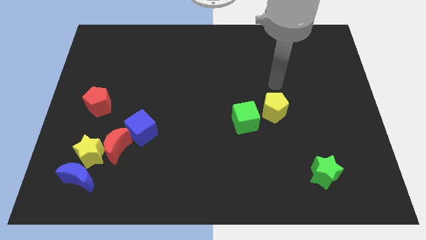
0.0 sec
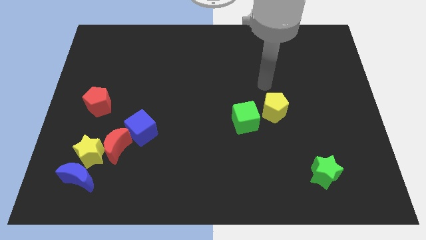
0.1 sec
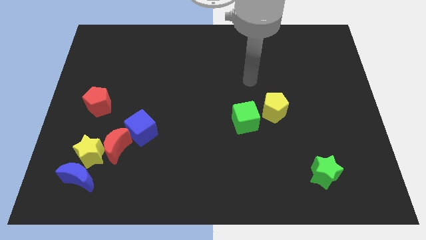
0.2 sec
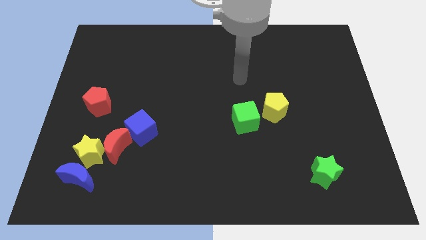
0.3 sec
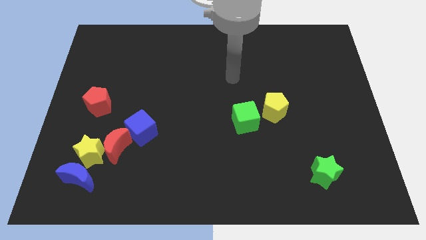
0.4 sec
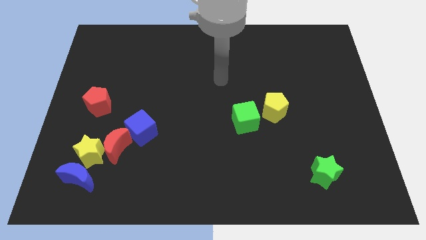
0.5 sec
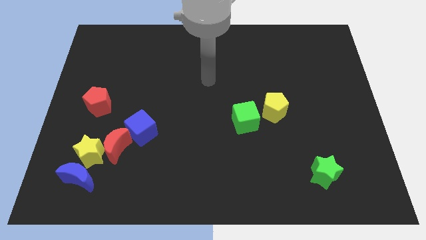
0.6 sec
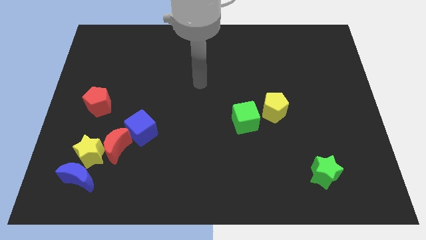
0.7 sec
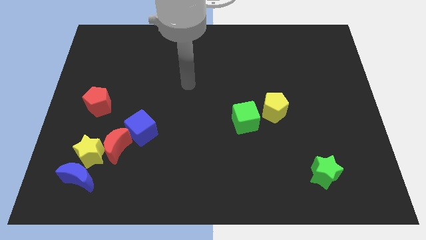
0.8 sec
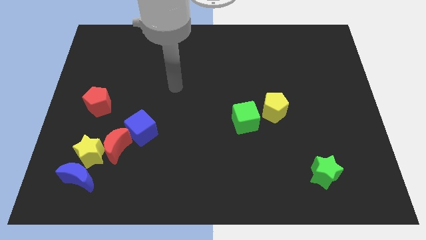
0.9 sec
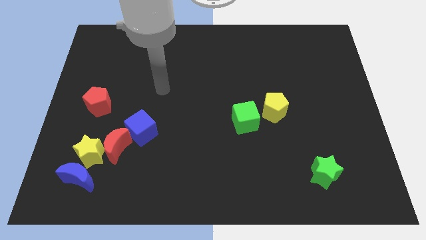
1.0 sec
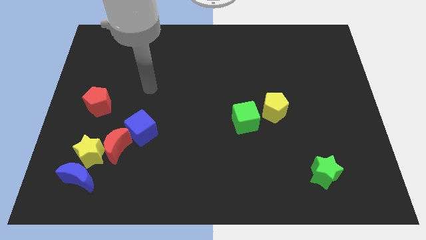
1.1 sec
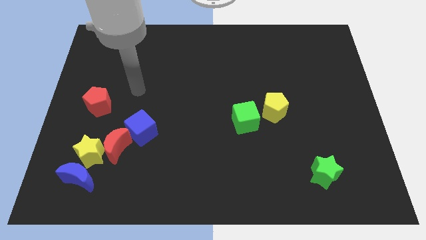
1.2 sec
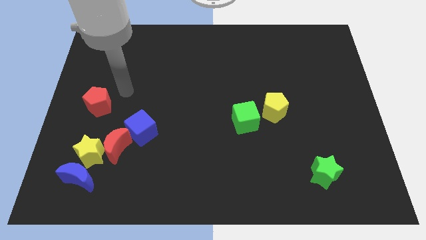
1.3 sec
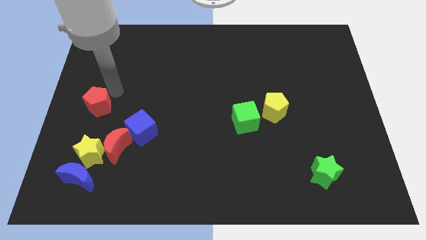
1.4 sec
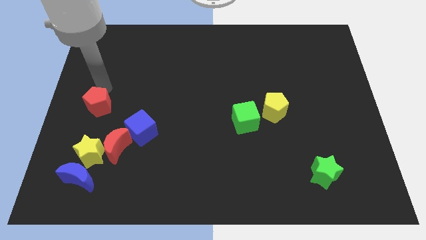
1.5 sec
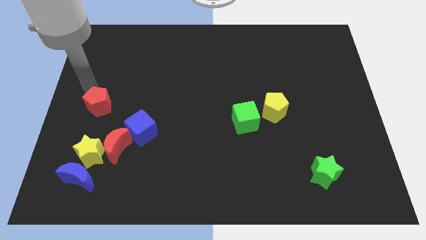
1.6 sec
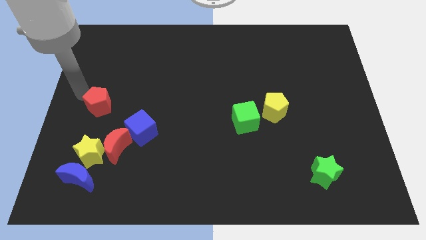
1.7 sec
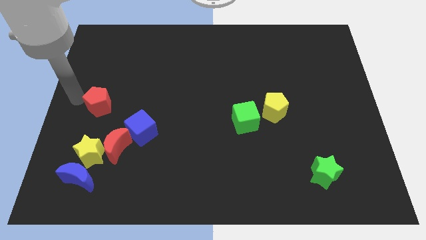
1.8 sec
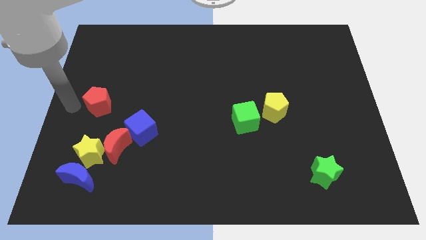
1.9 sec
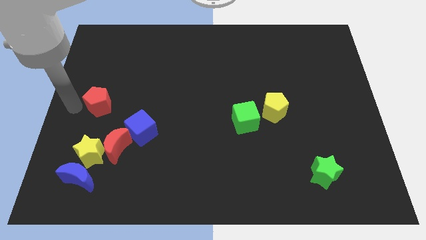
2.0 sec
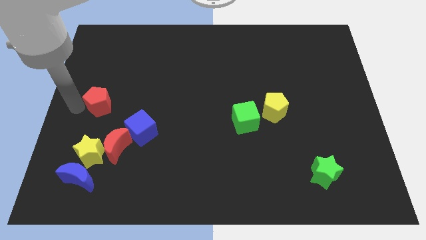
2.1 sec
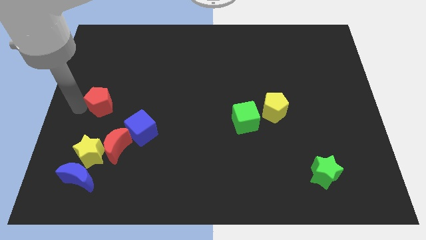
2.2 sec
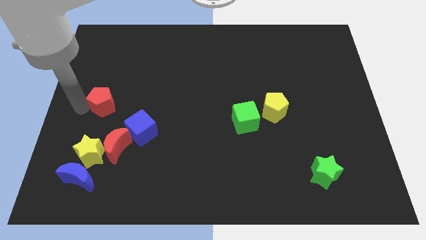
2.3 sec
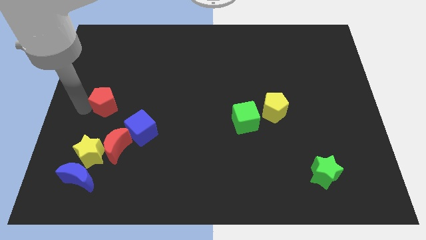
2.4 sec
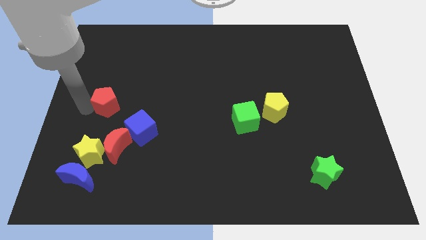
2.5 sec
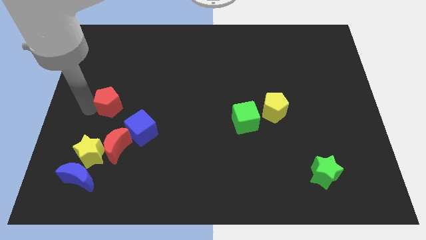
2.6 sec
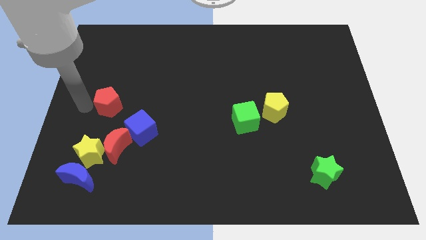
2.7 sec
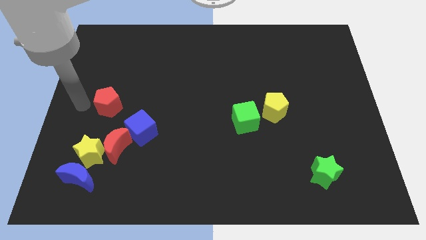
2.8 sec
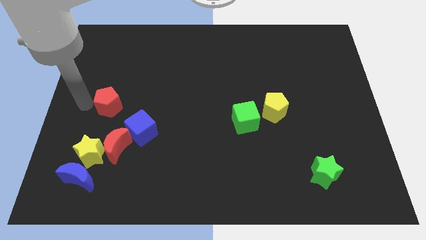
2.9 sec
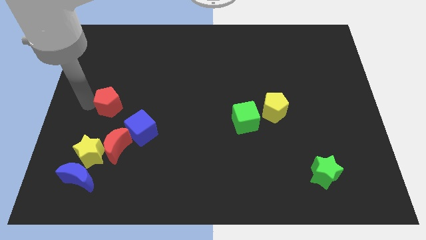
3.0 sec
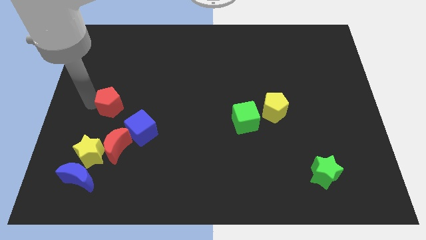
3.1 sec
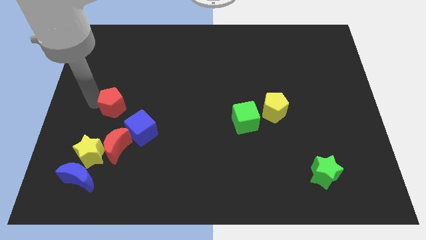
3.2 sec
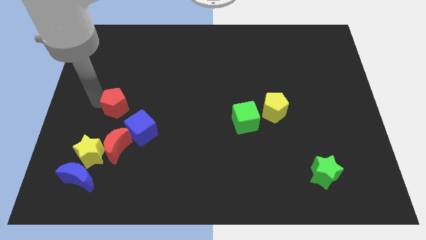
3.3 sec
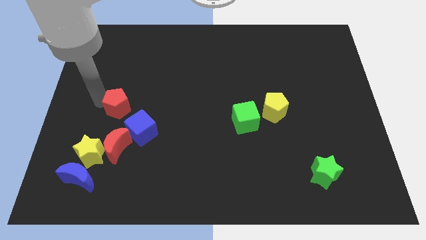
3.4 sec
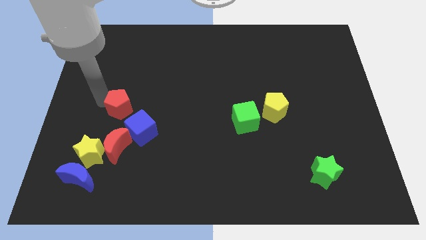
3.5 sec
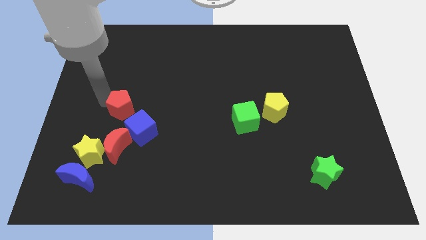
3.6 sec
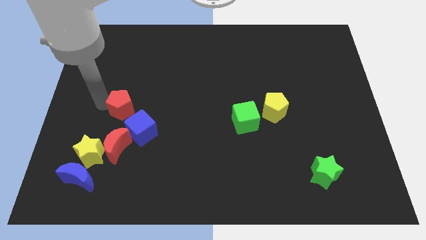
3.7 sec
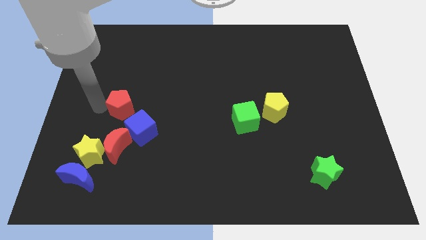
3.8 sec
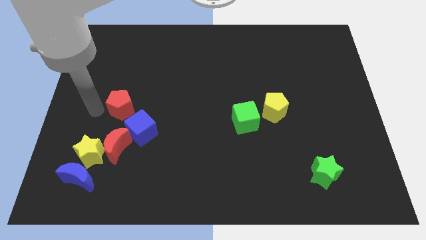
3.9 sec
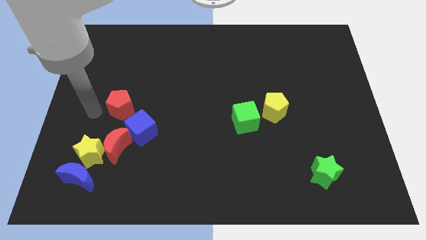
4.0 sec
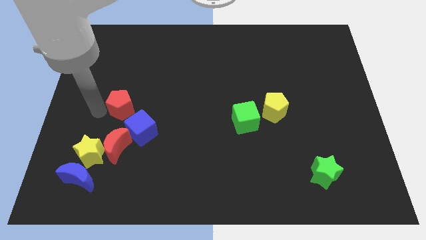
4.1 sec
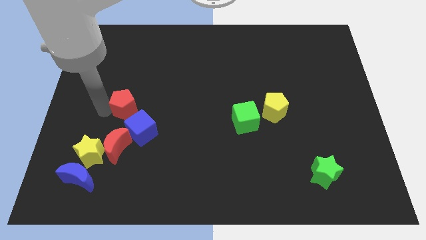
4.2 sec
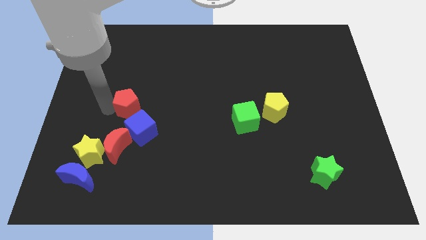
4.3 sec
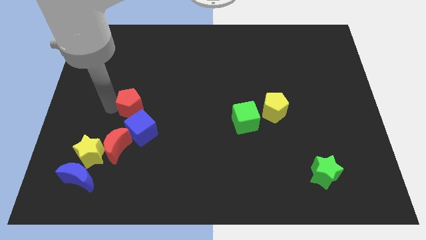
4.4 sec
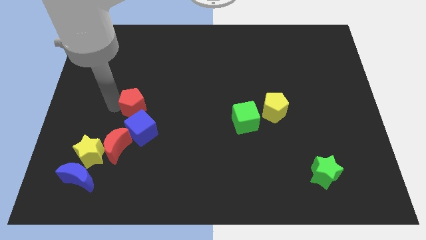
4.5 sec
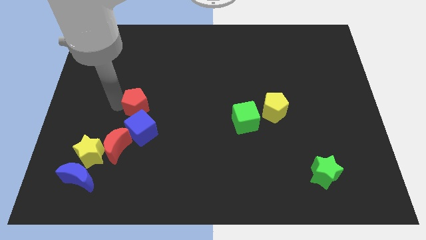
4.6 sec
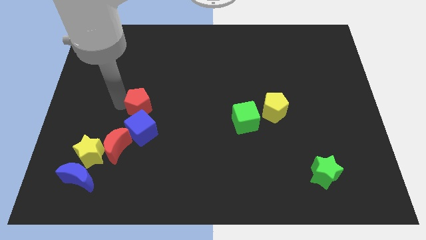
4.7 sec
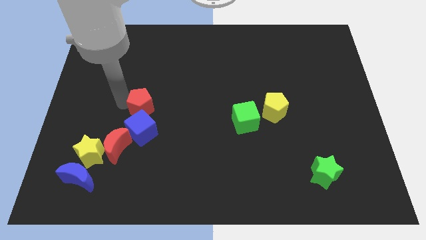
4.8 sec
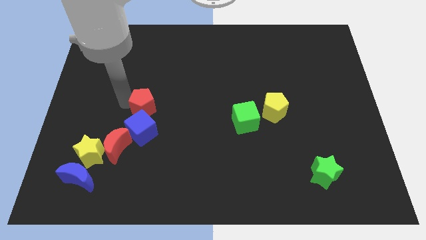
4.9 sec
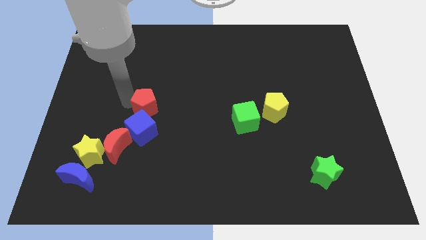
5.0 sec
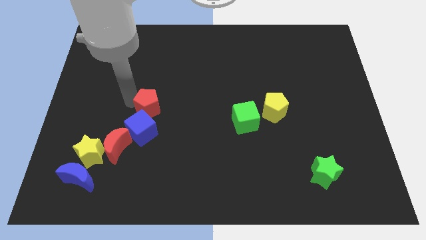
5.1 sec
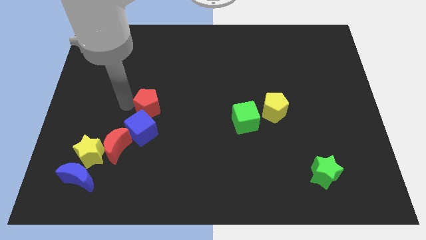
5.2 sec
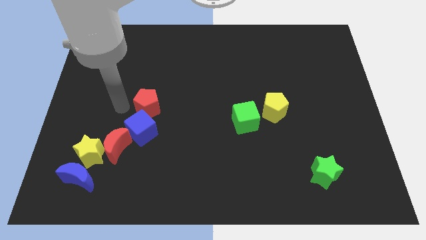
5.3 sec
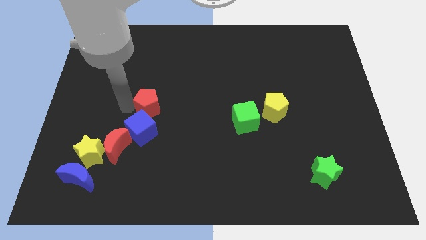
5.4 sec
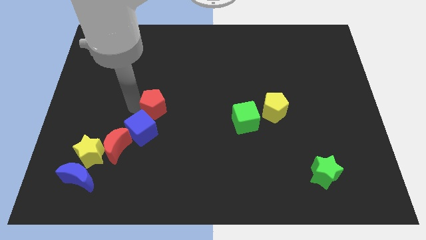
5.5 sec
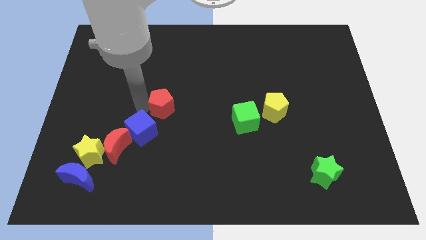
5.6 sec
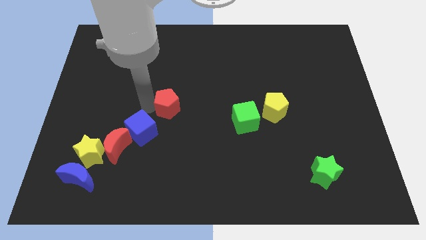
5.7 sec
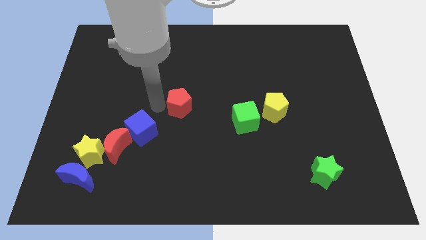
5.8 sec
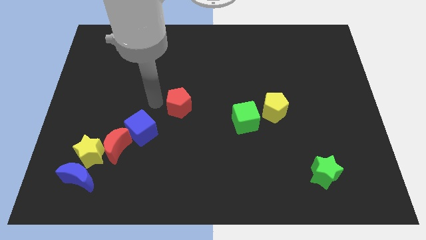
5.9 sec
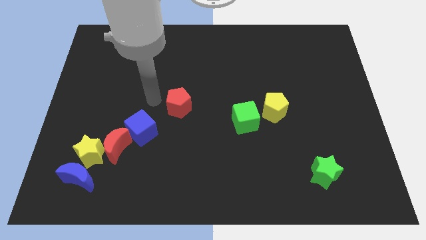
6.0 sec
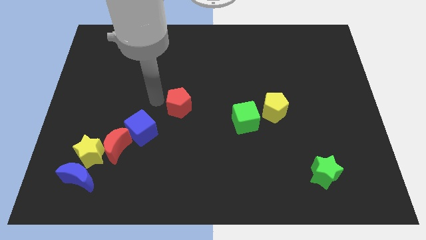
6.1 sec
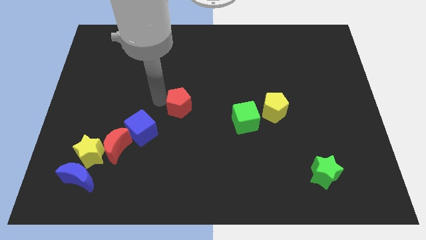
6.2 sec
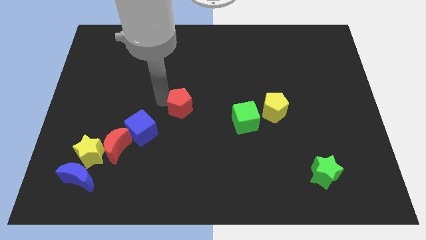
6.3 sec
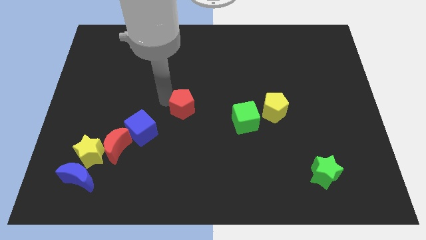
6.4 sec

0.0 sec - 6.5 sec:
move the red pentagon right

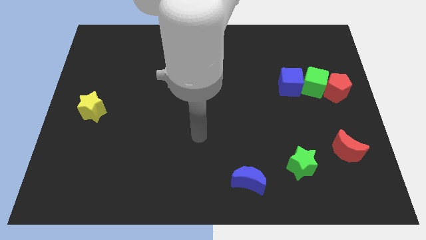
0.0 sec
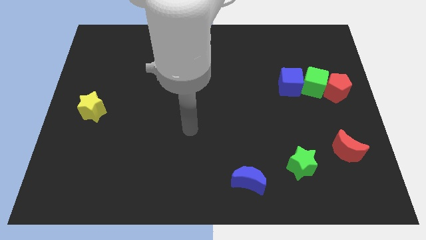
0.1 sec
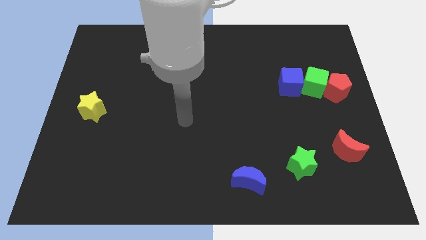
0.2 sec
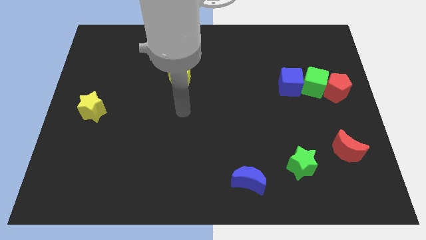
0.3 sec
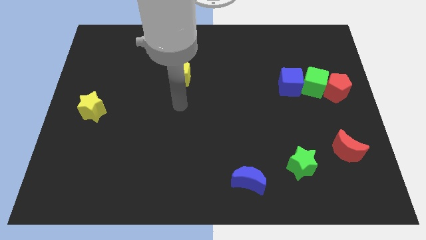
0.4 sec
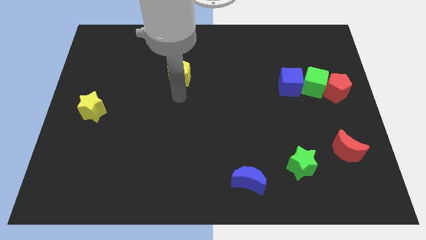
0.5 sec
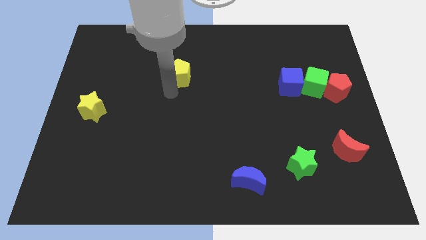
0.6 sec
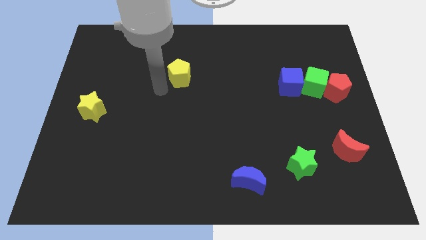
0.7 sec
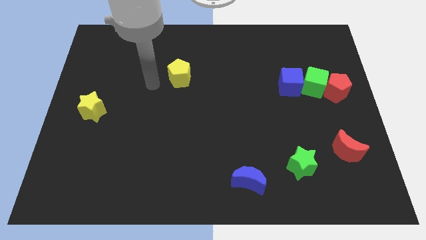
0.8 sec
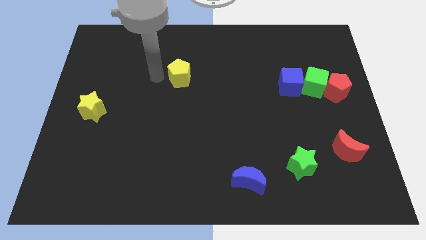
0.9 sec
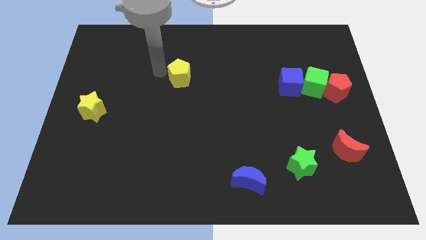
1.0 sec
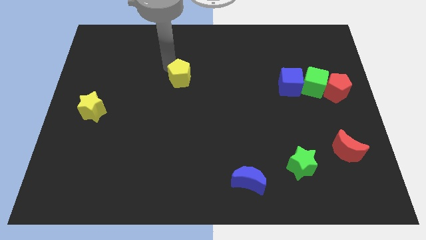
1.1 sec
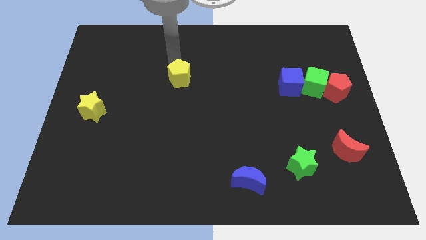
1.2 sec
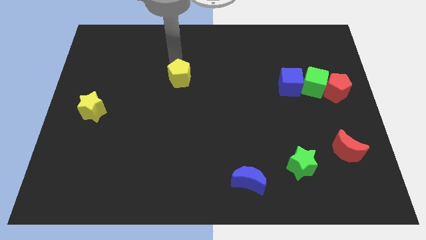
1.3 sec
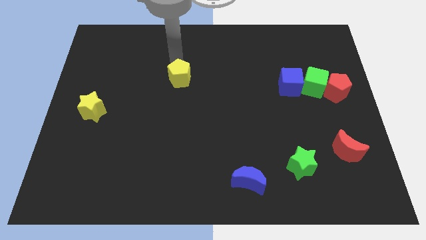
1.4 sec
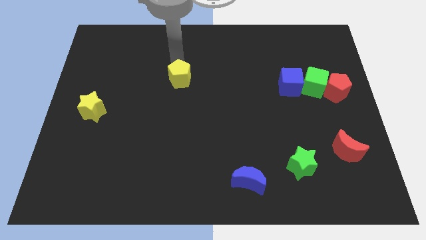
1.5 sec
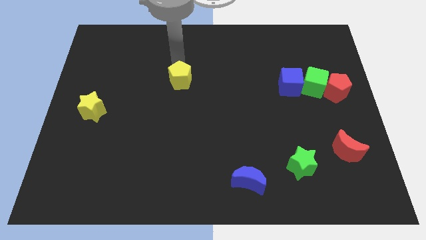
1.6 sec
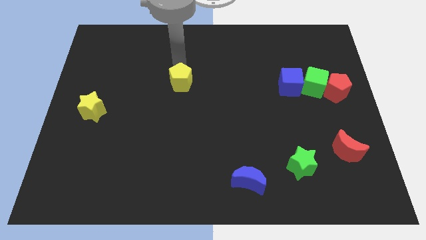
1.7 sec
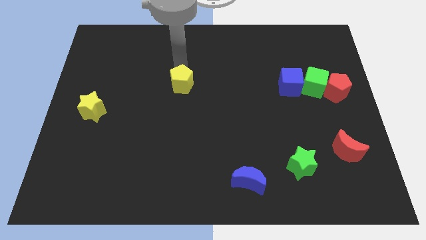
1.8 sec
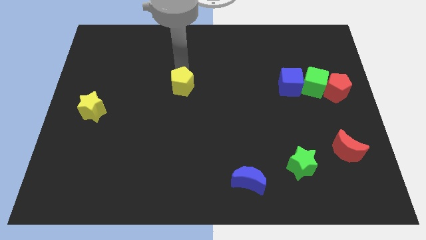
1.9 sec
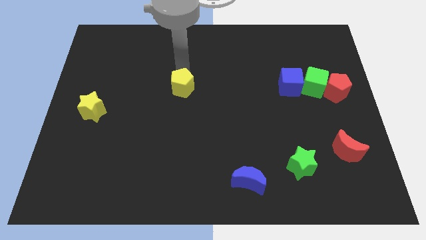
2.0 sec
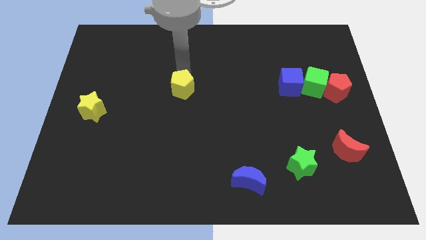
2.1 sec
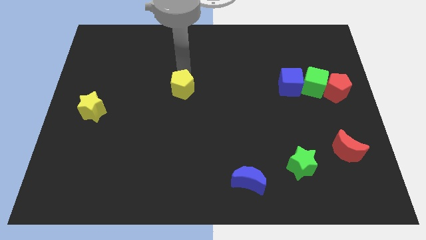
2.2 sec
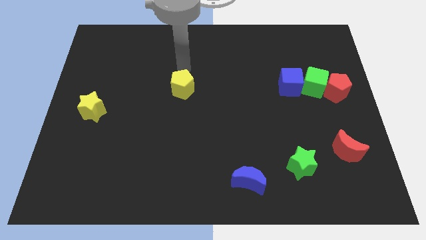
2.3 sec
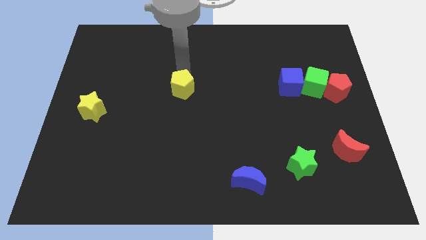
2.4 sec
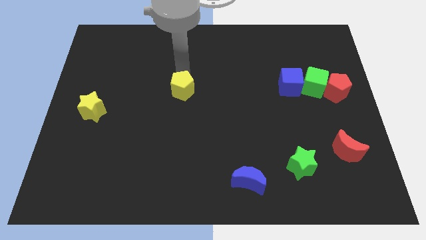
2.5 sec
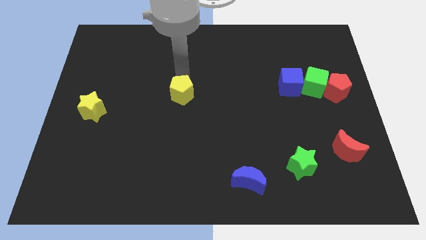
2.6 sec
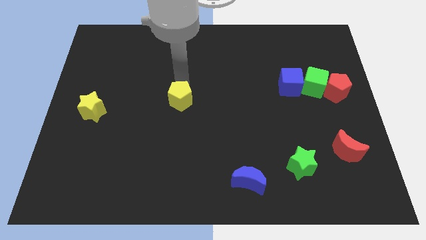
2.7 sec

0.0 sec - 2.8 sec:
move the yellow pentagon slightly down
